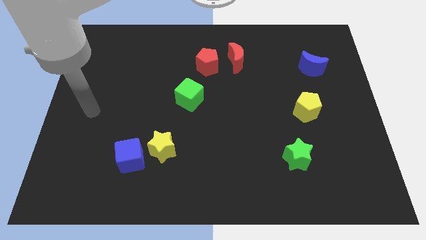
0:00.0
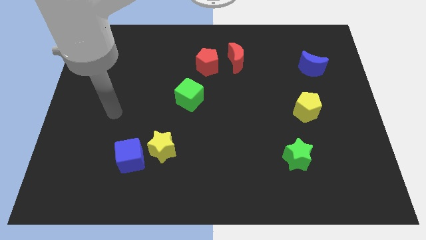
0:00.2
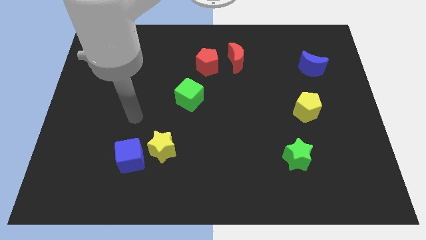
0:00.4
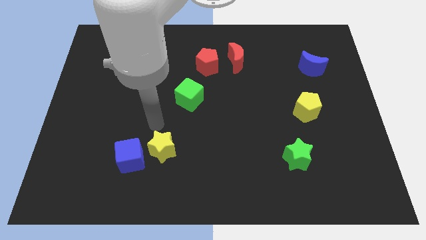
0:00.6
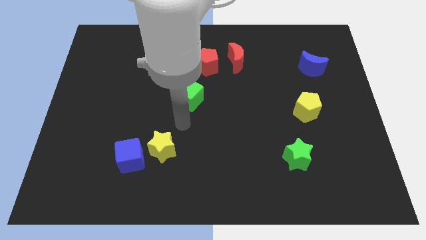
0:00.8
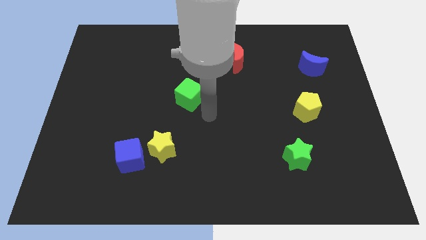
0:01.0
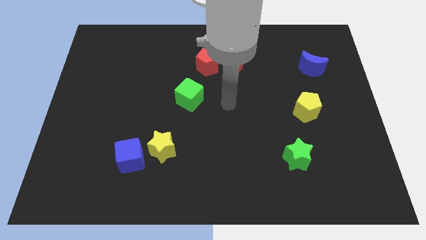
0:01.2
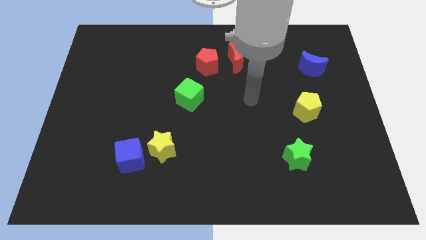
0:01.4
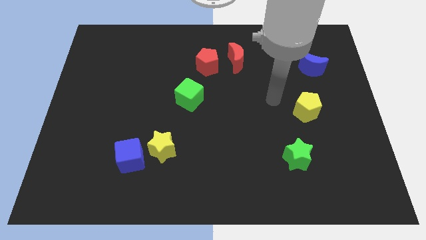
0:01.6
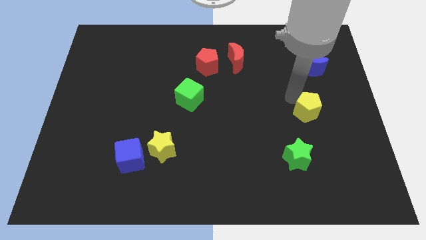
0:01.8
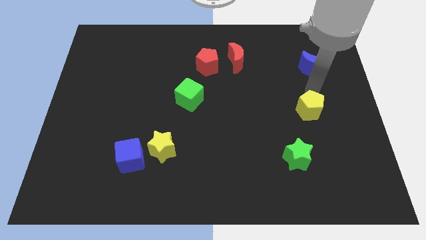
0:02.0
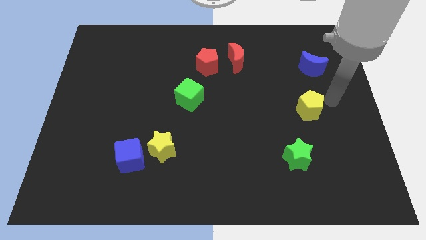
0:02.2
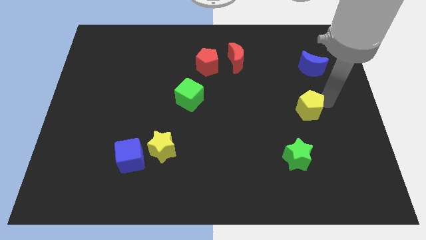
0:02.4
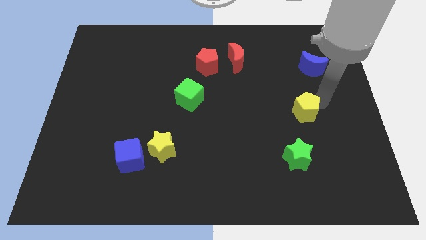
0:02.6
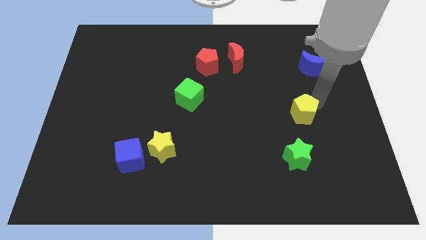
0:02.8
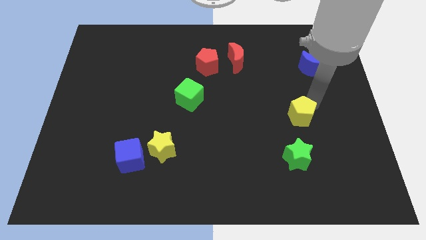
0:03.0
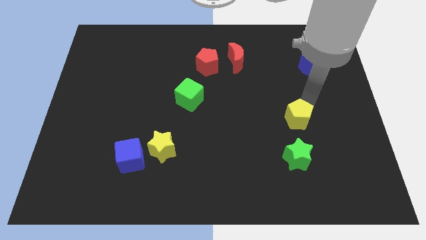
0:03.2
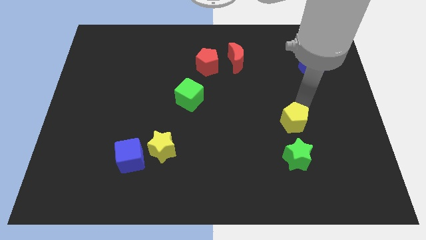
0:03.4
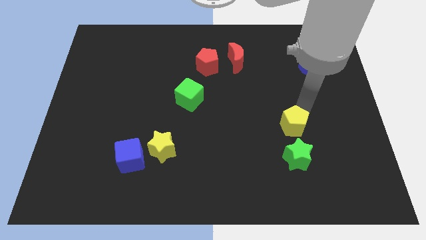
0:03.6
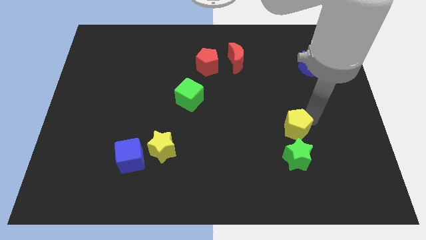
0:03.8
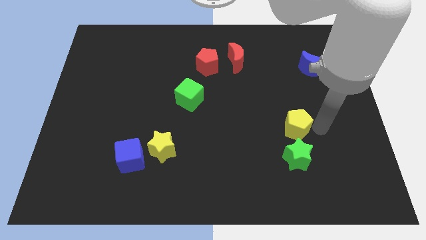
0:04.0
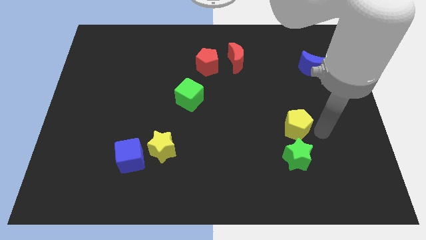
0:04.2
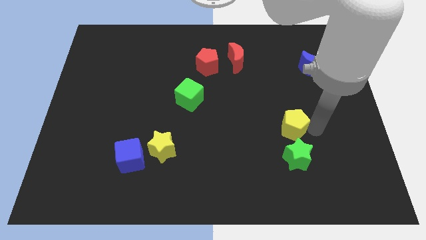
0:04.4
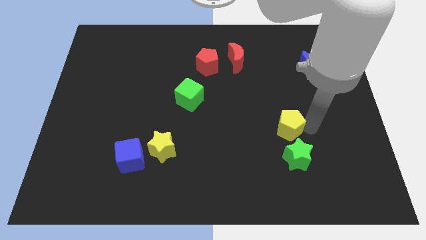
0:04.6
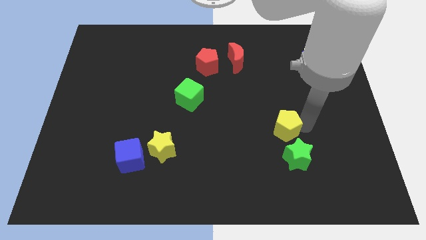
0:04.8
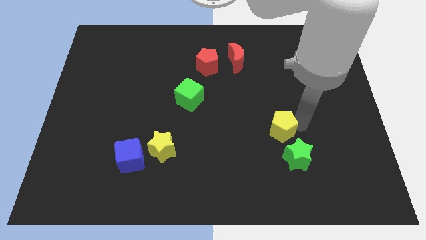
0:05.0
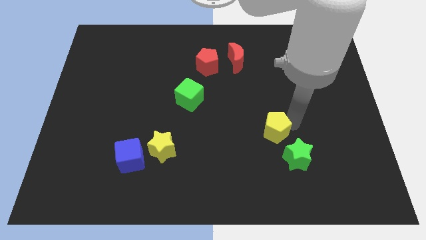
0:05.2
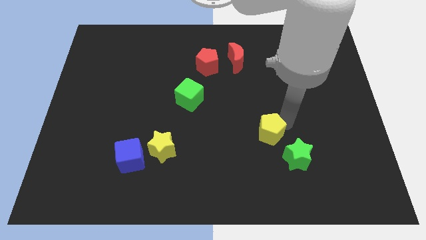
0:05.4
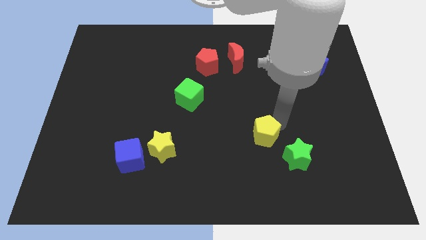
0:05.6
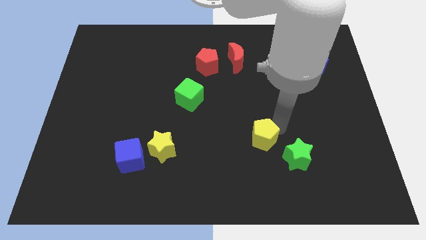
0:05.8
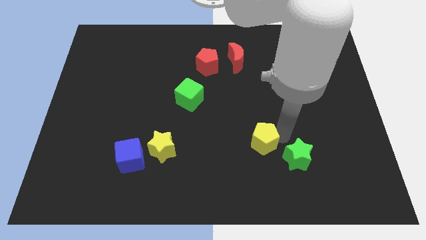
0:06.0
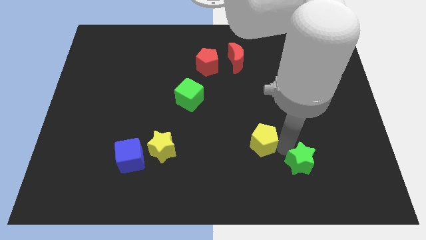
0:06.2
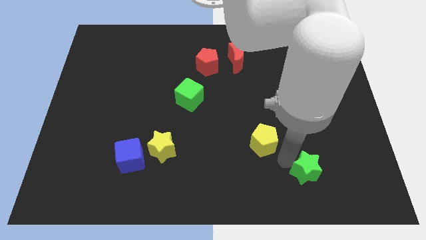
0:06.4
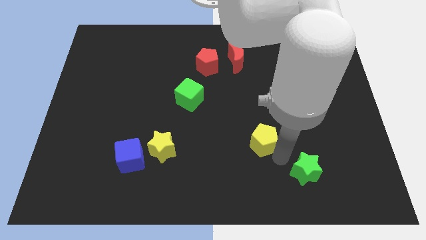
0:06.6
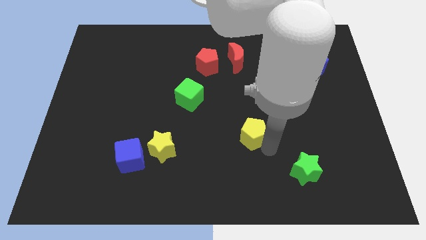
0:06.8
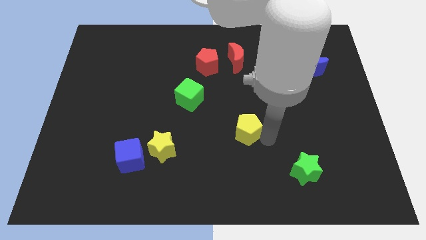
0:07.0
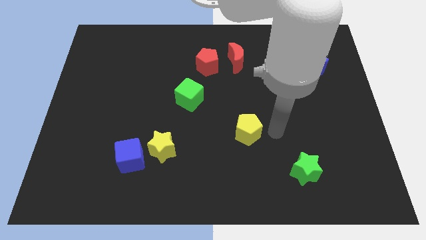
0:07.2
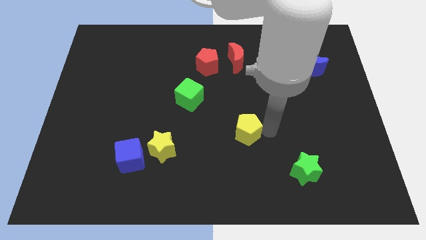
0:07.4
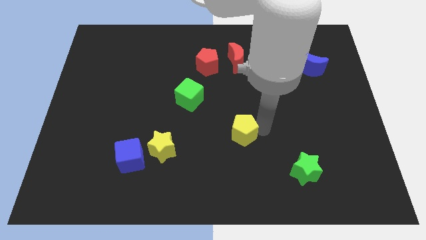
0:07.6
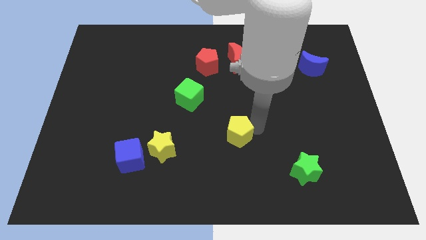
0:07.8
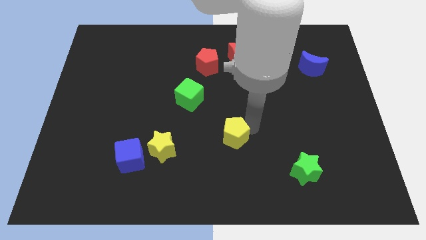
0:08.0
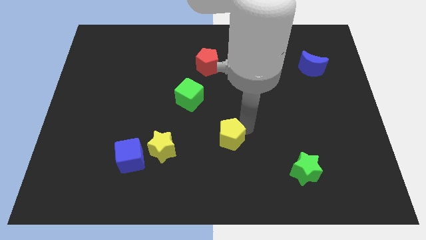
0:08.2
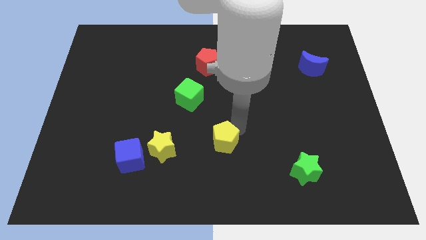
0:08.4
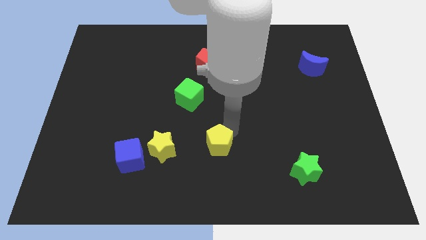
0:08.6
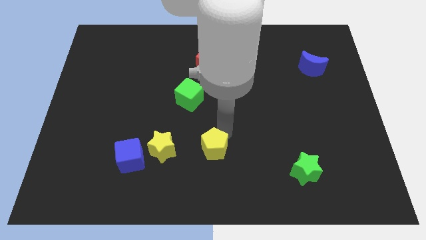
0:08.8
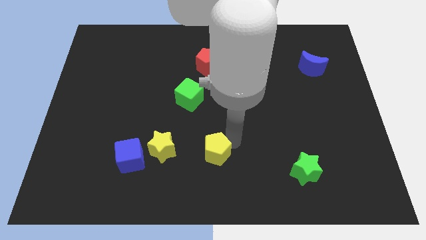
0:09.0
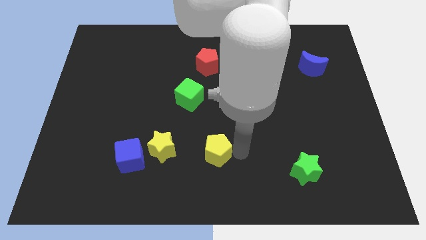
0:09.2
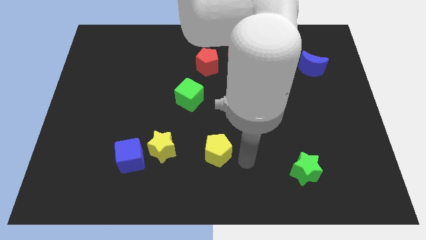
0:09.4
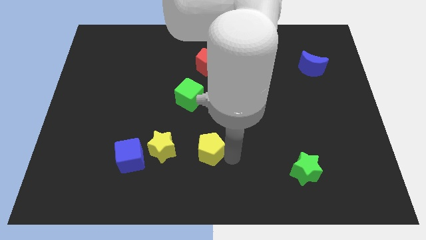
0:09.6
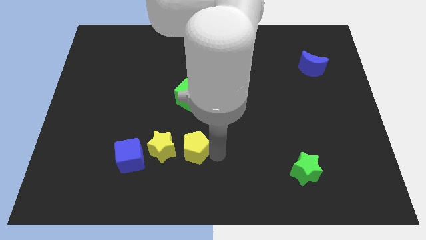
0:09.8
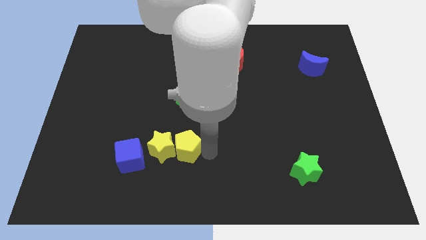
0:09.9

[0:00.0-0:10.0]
push the yellow pentagon next to the yellow star

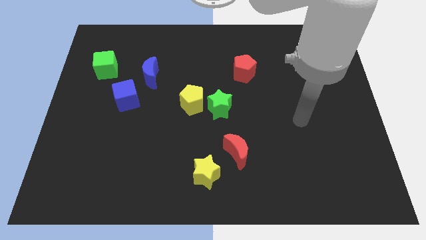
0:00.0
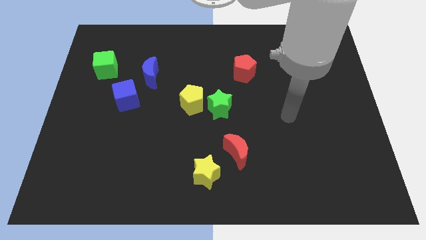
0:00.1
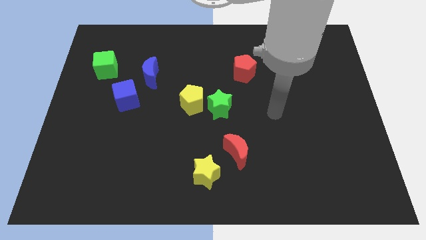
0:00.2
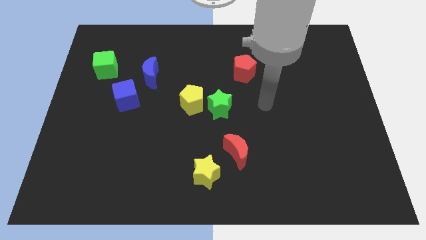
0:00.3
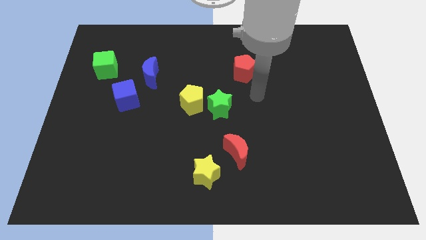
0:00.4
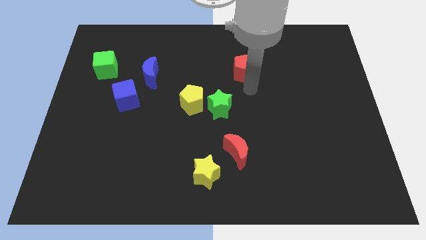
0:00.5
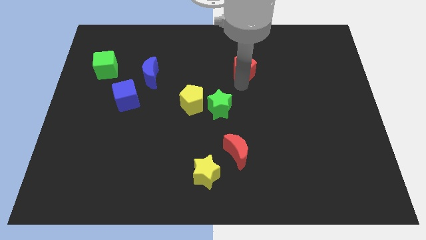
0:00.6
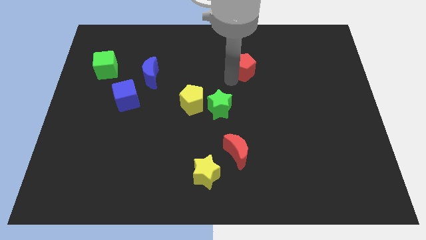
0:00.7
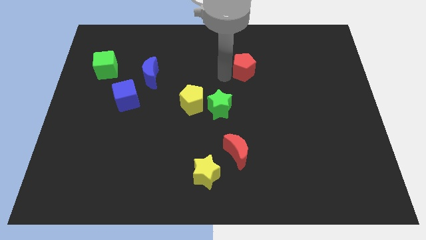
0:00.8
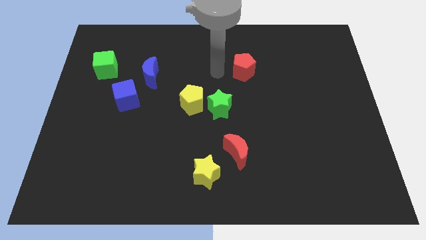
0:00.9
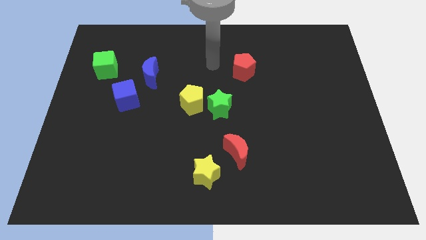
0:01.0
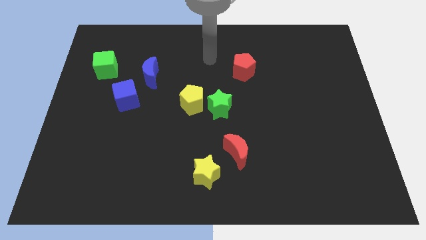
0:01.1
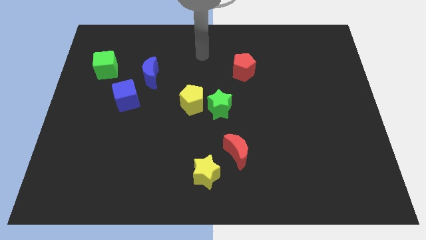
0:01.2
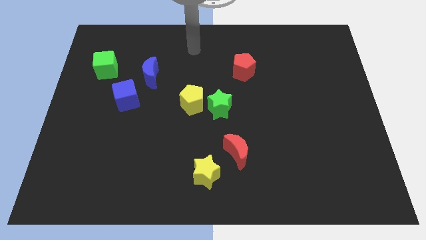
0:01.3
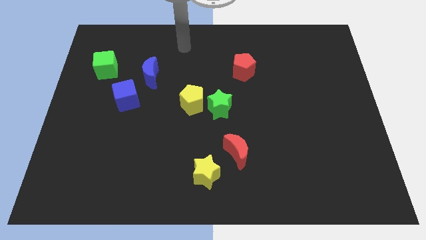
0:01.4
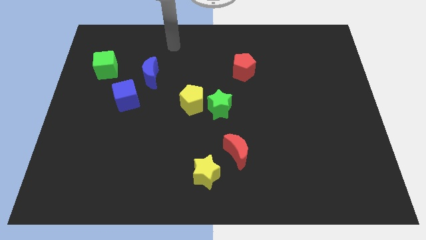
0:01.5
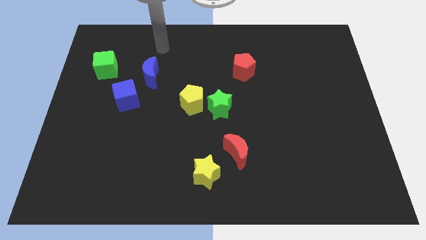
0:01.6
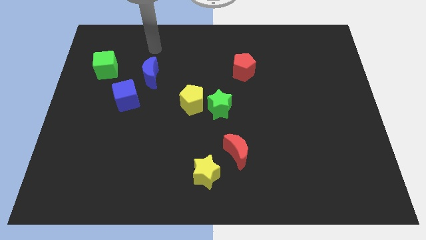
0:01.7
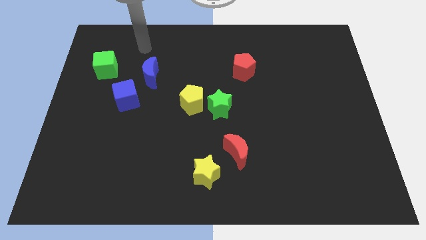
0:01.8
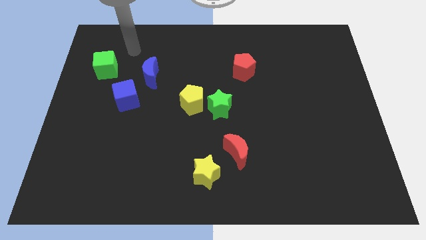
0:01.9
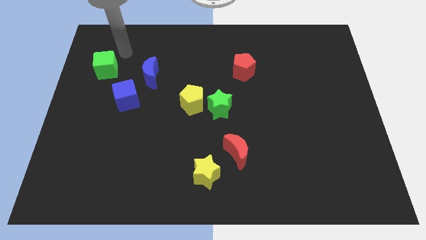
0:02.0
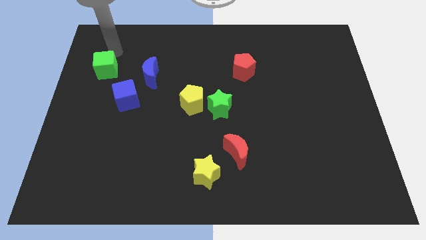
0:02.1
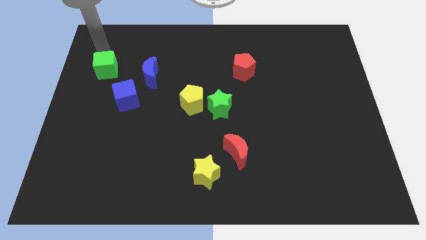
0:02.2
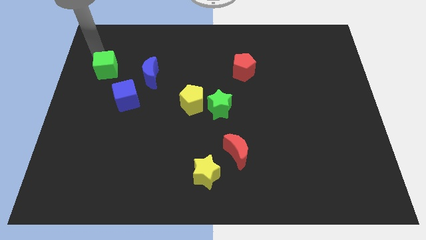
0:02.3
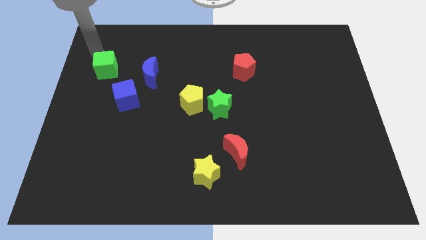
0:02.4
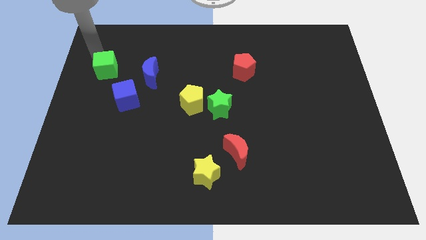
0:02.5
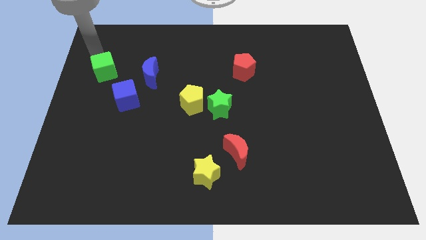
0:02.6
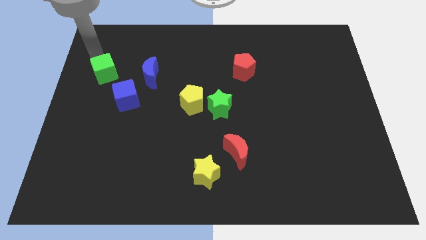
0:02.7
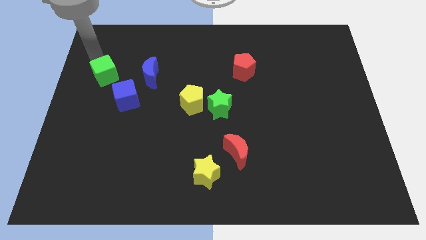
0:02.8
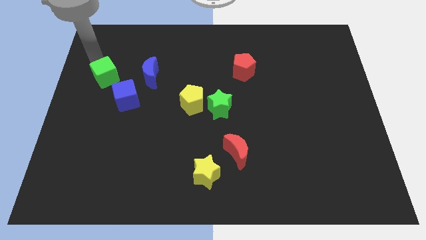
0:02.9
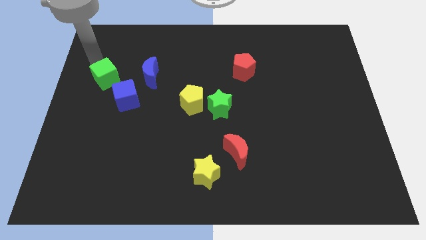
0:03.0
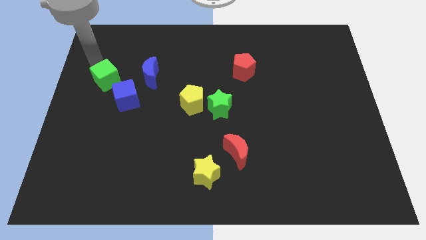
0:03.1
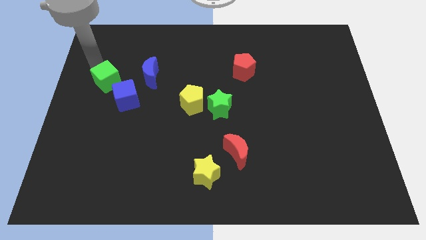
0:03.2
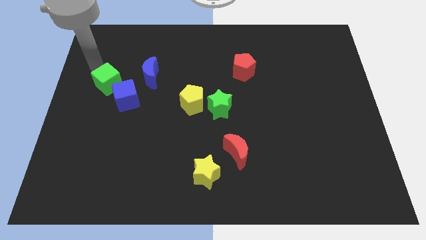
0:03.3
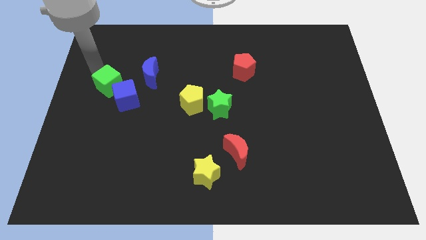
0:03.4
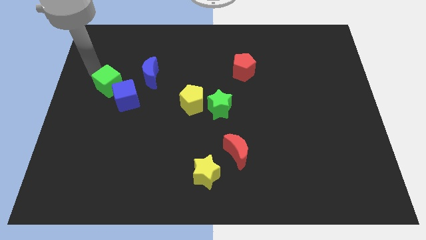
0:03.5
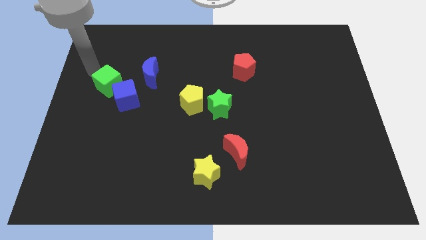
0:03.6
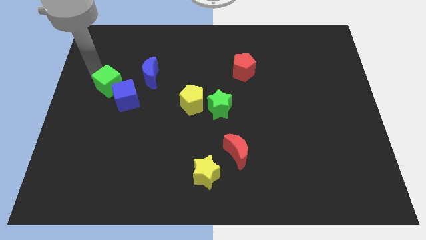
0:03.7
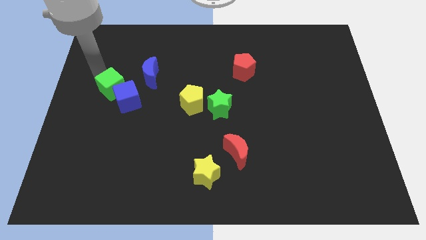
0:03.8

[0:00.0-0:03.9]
move the green cube towards the blue cube
